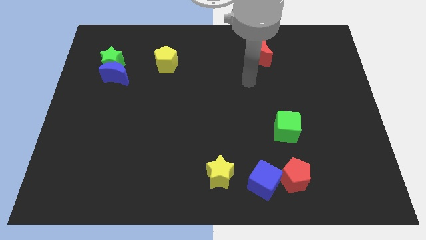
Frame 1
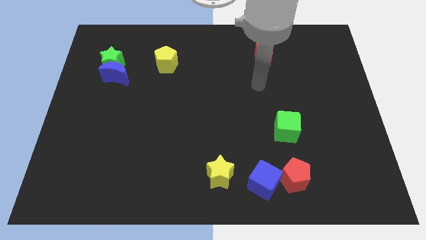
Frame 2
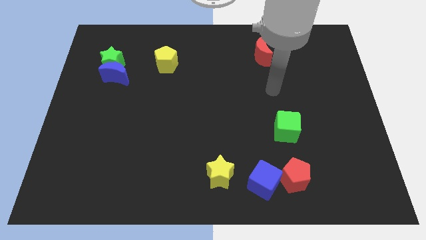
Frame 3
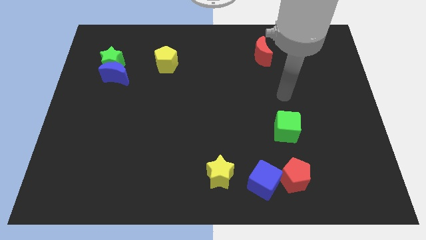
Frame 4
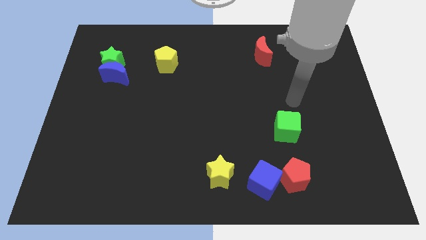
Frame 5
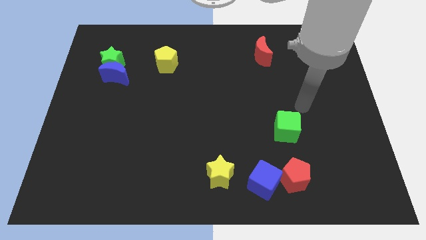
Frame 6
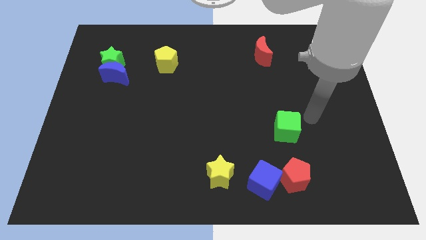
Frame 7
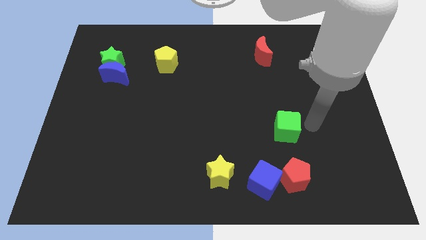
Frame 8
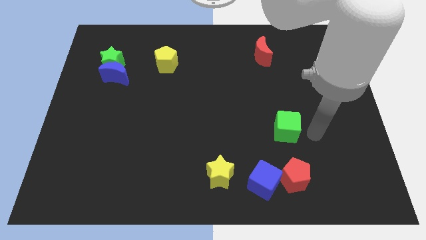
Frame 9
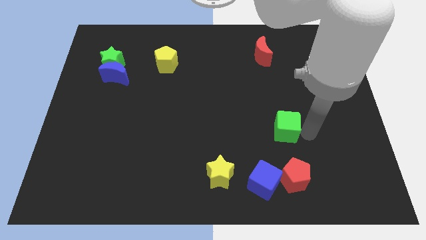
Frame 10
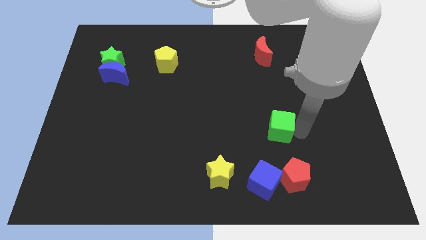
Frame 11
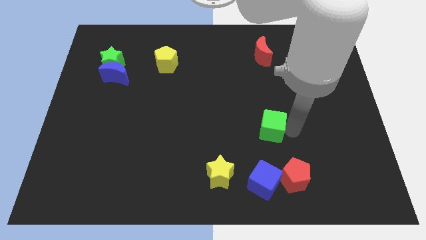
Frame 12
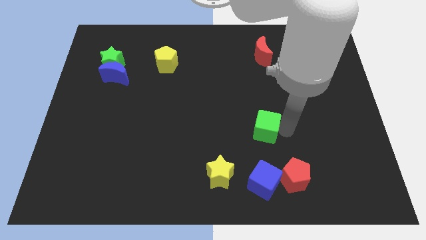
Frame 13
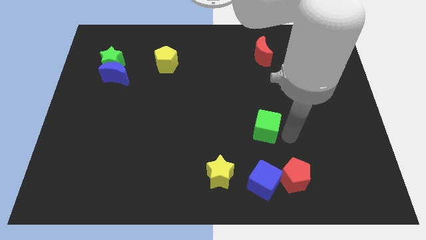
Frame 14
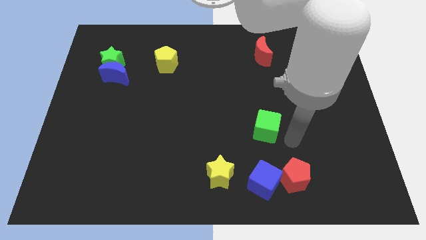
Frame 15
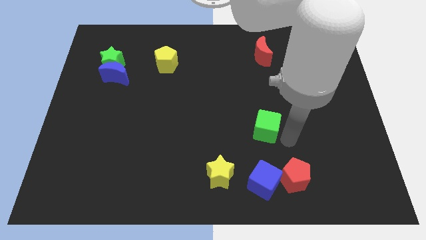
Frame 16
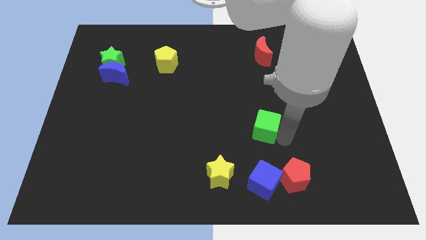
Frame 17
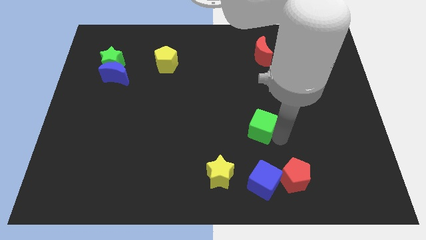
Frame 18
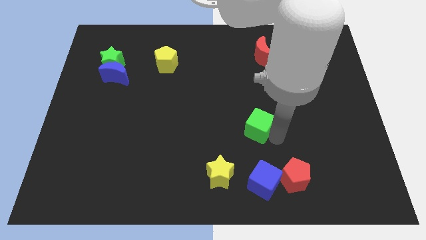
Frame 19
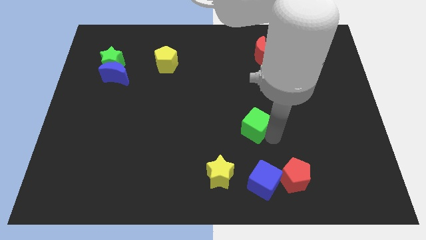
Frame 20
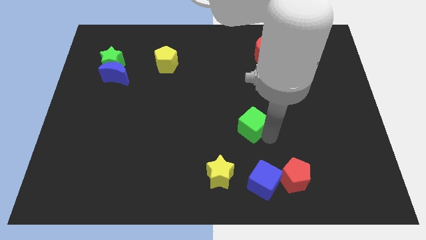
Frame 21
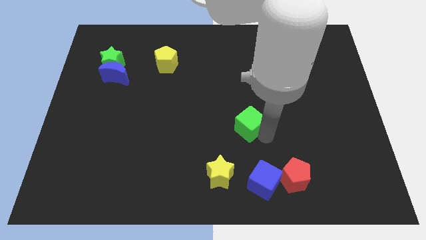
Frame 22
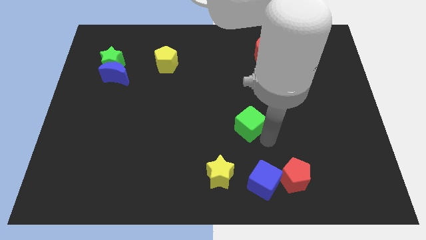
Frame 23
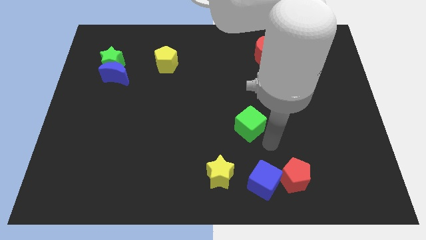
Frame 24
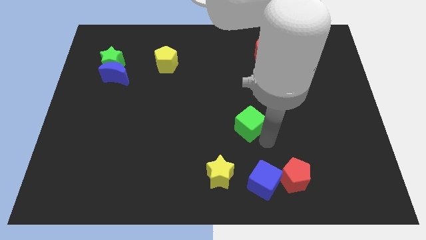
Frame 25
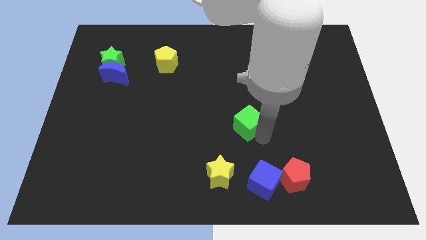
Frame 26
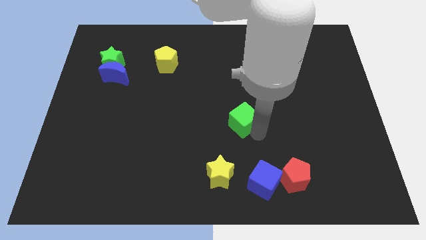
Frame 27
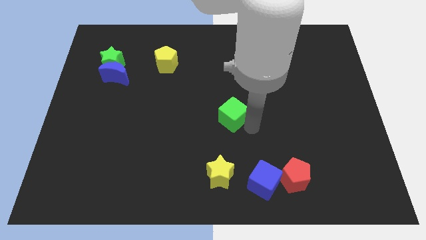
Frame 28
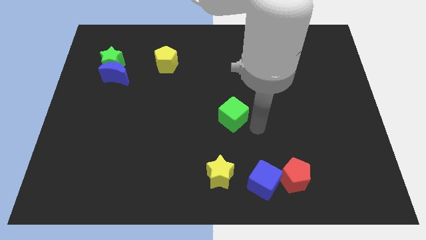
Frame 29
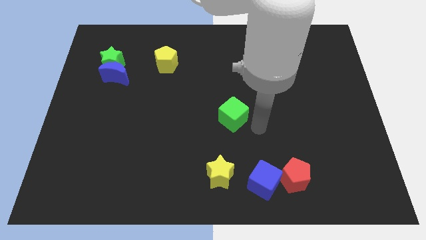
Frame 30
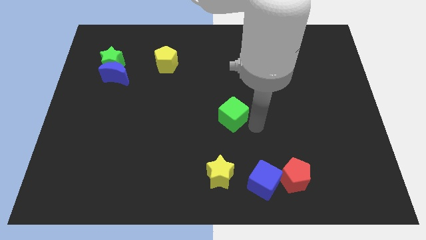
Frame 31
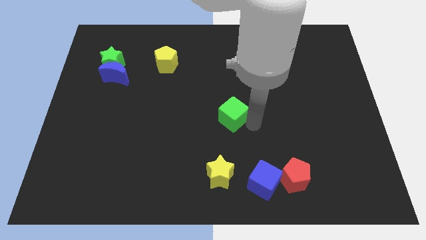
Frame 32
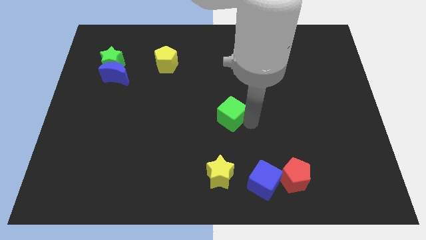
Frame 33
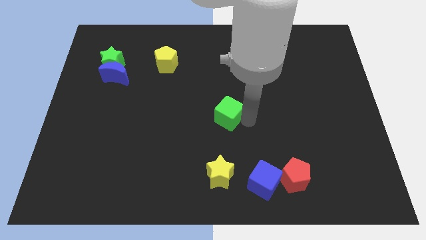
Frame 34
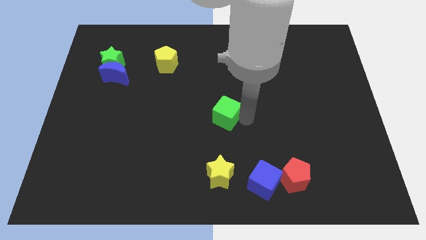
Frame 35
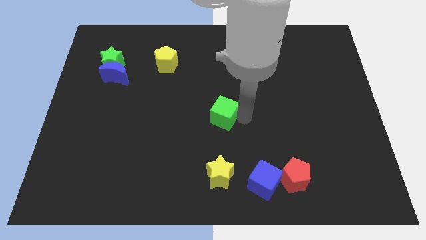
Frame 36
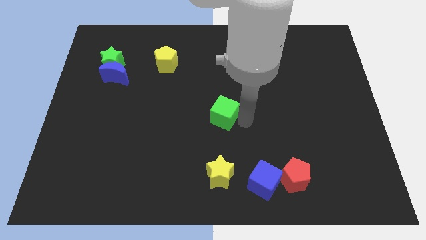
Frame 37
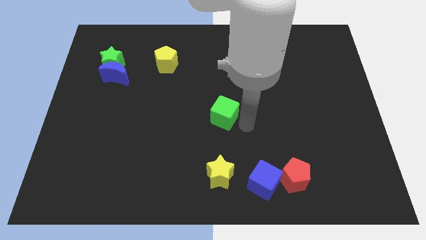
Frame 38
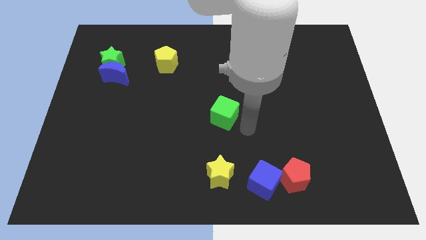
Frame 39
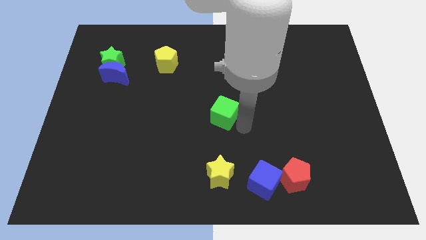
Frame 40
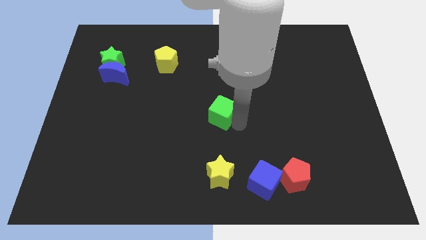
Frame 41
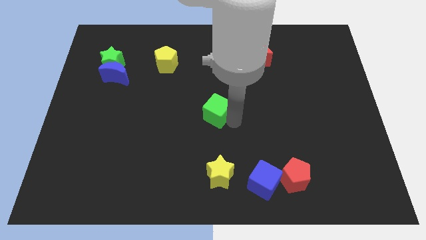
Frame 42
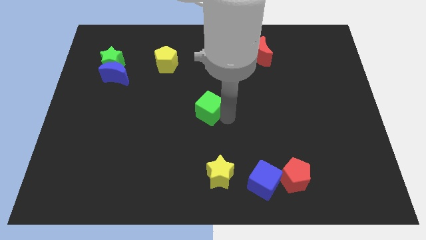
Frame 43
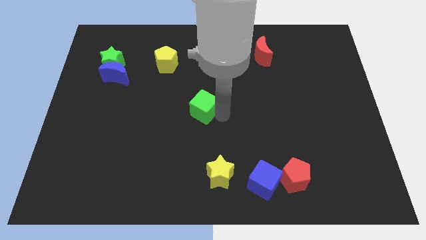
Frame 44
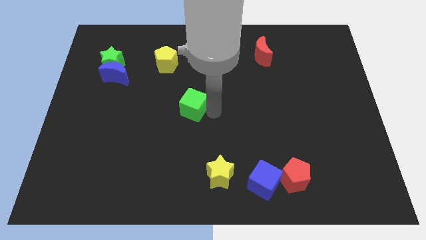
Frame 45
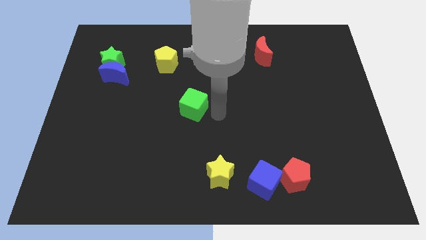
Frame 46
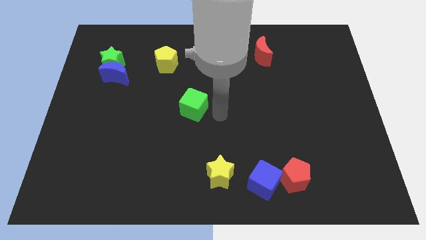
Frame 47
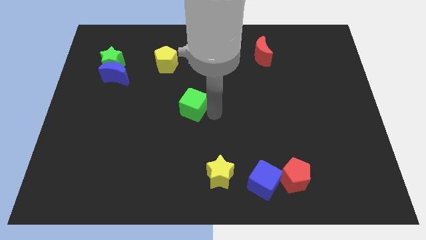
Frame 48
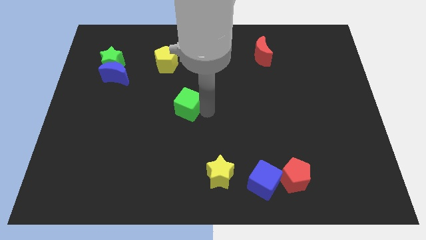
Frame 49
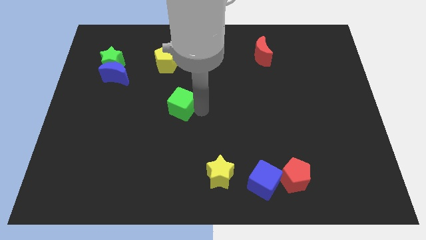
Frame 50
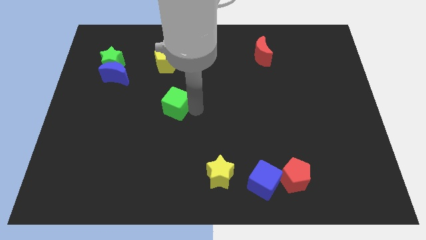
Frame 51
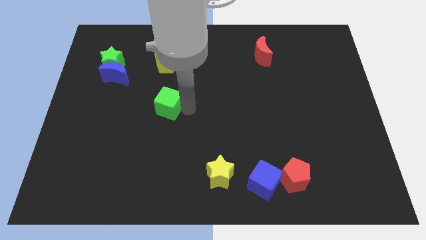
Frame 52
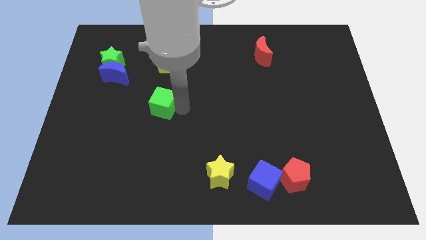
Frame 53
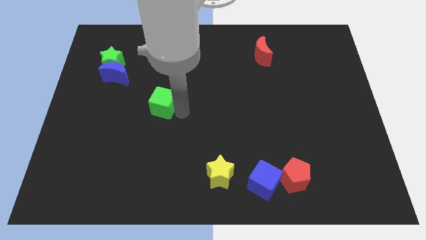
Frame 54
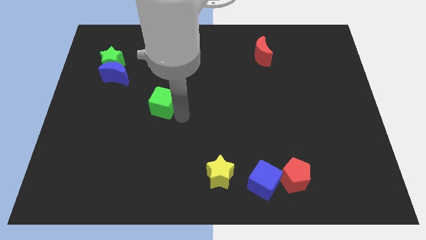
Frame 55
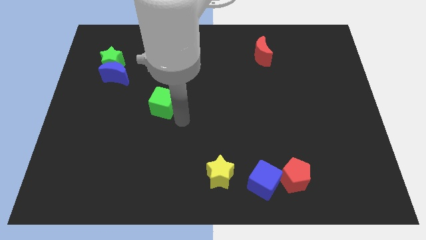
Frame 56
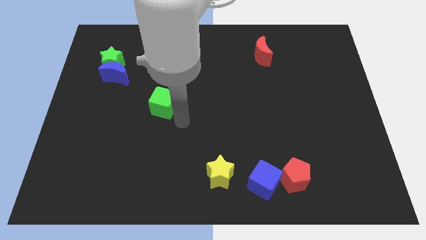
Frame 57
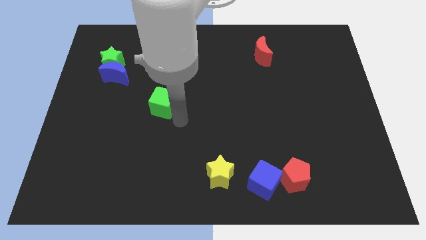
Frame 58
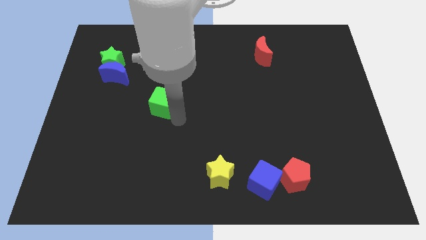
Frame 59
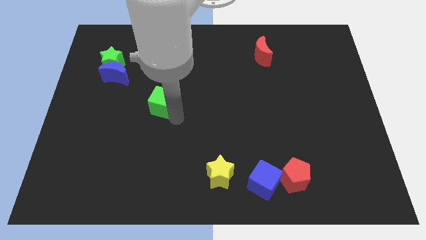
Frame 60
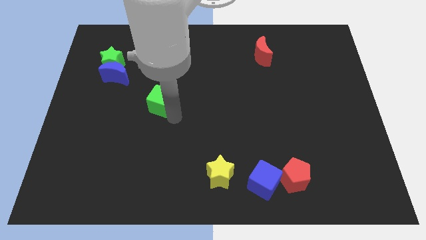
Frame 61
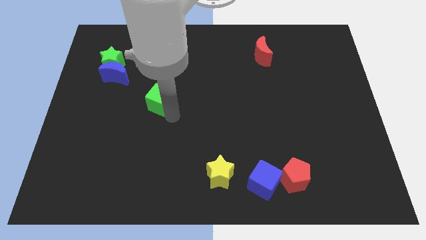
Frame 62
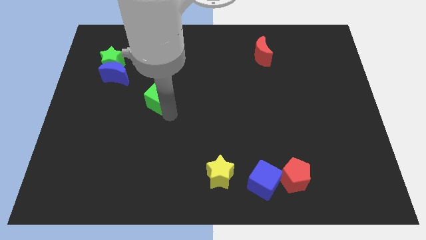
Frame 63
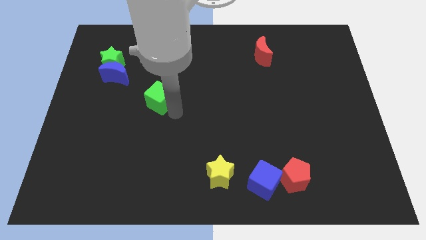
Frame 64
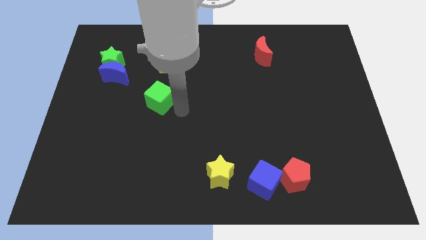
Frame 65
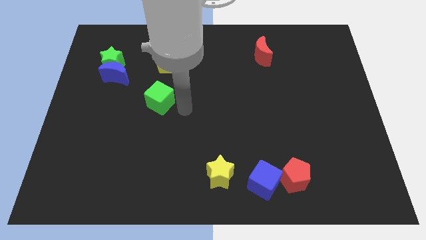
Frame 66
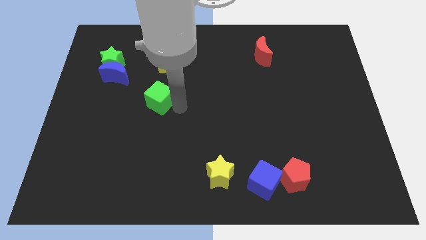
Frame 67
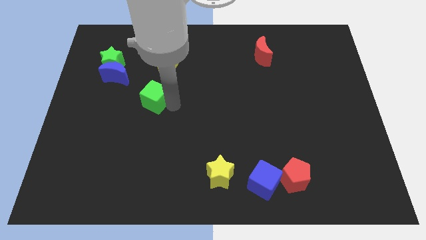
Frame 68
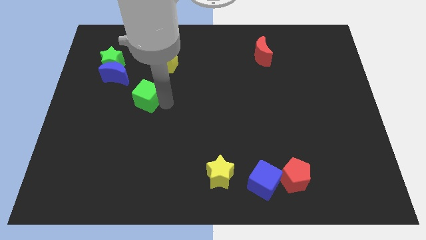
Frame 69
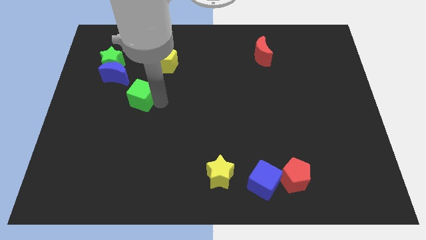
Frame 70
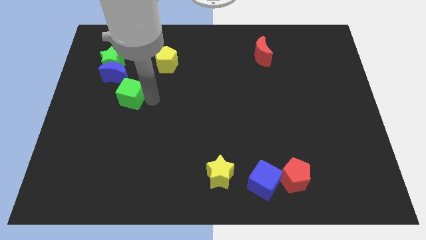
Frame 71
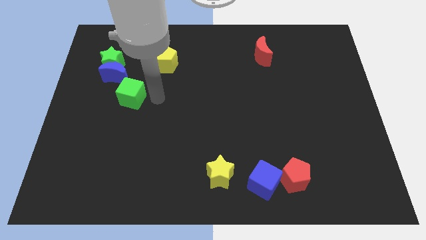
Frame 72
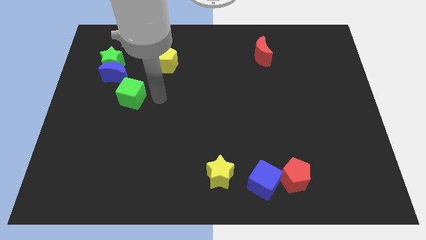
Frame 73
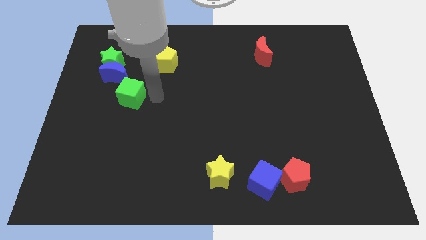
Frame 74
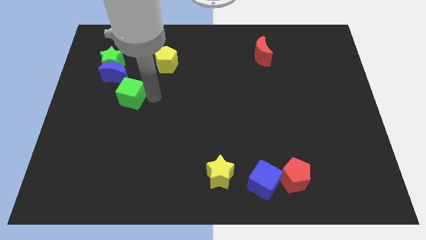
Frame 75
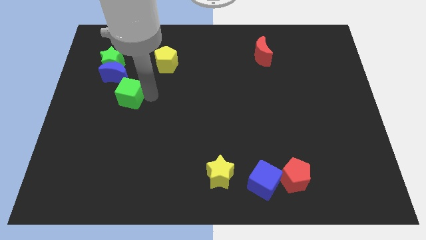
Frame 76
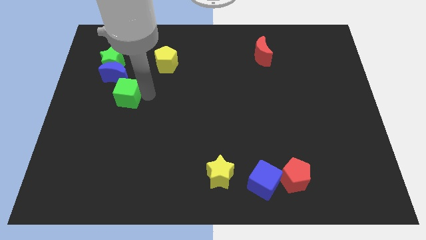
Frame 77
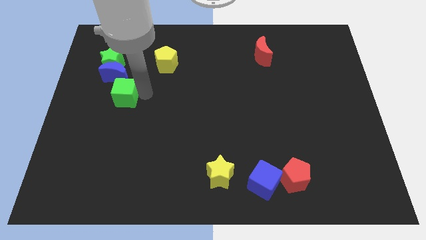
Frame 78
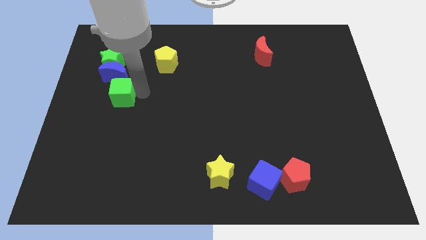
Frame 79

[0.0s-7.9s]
put the green cube below the green star

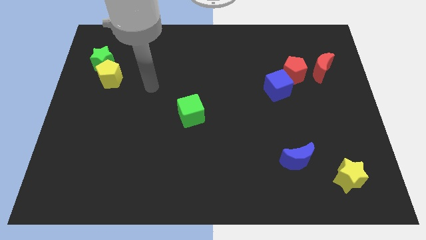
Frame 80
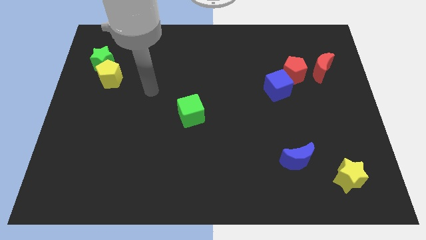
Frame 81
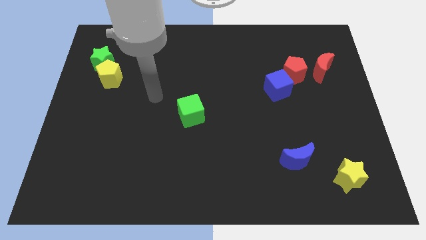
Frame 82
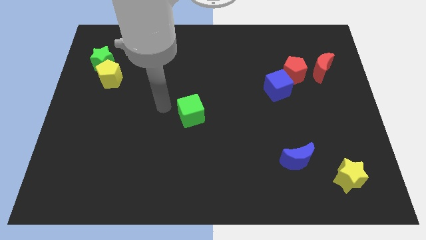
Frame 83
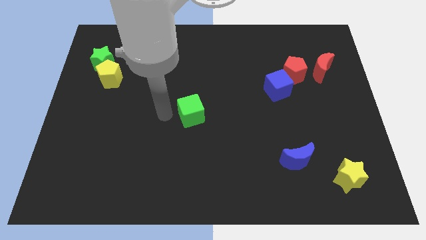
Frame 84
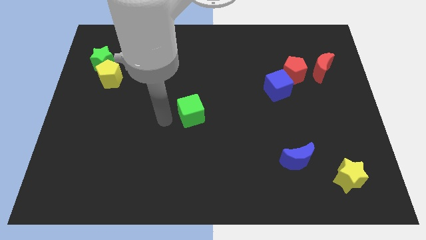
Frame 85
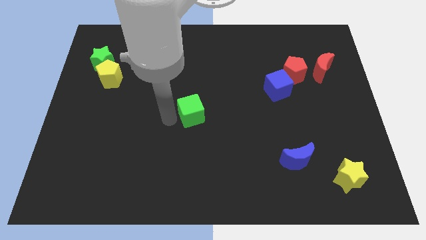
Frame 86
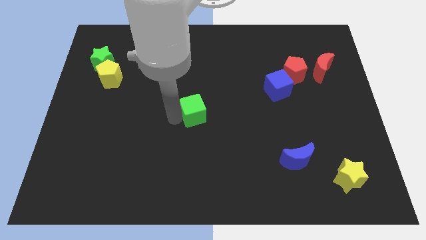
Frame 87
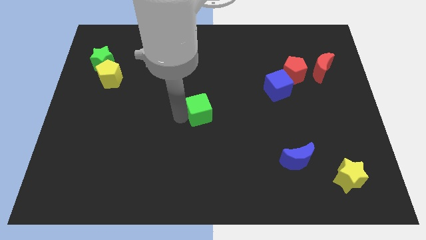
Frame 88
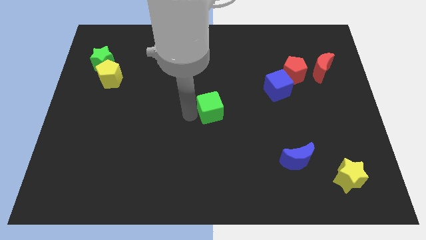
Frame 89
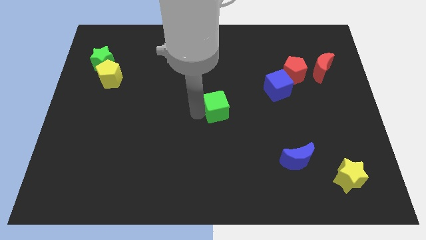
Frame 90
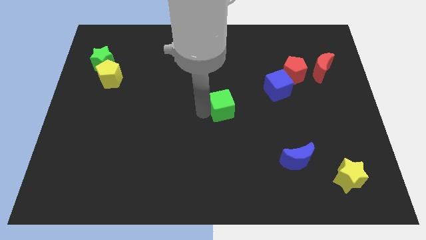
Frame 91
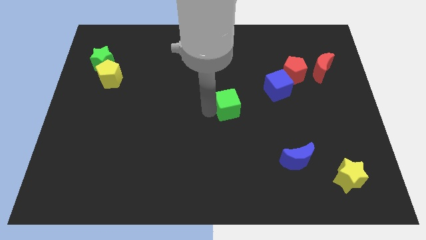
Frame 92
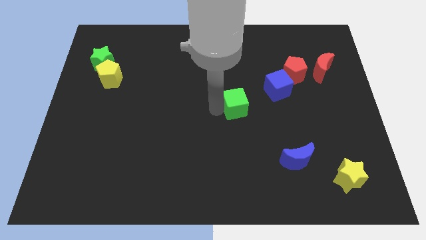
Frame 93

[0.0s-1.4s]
slide the green cube diagonally down and to the left of the blue cube
